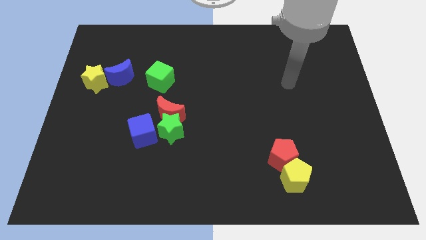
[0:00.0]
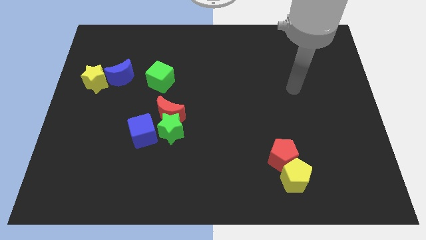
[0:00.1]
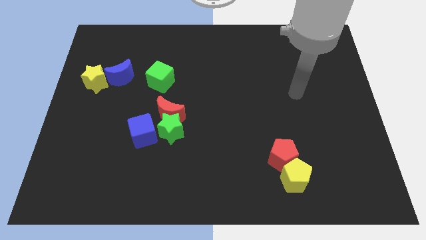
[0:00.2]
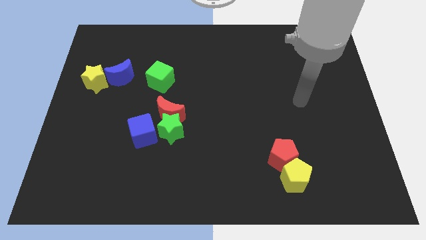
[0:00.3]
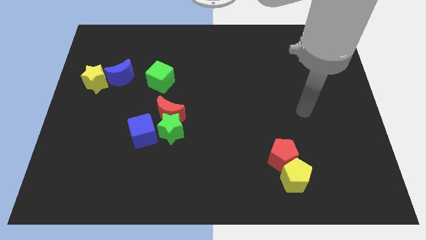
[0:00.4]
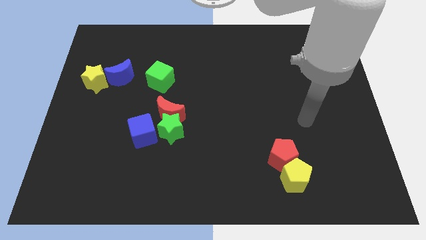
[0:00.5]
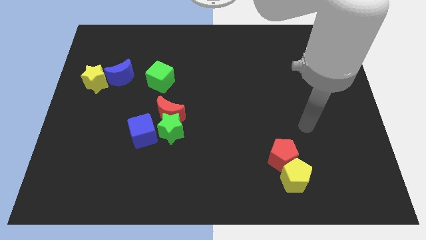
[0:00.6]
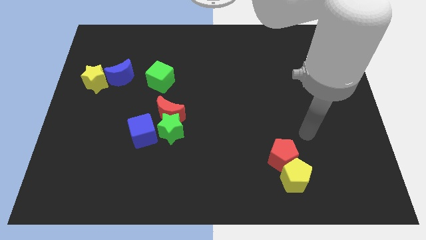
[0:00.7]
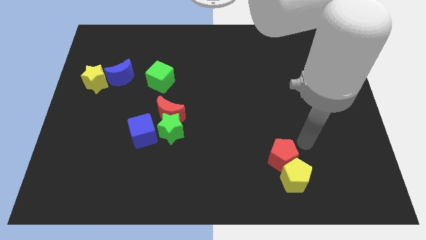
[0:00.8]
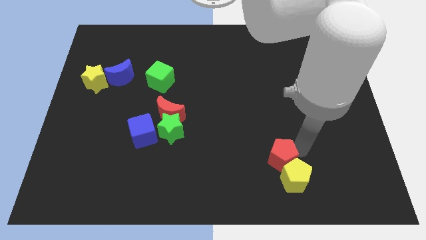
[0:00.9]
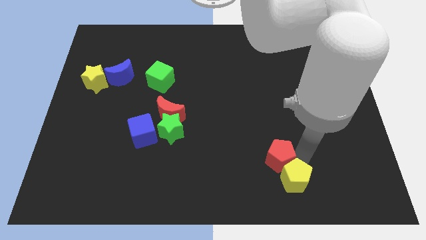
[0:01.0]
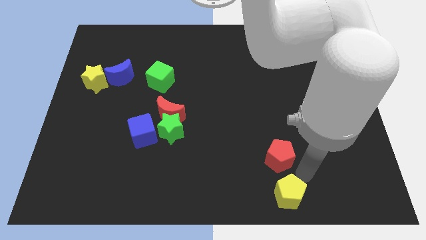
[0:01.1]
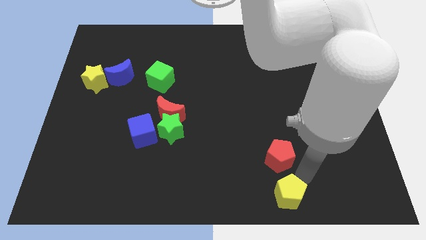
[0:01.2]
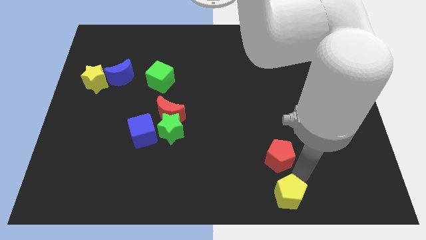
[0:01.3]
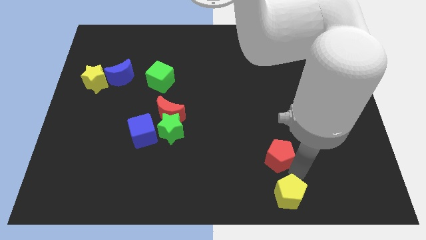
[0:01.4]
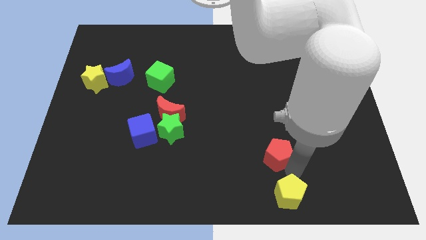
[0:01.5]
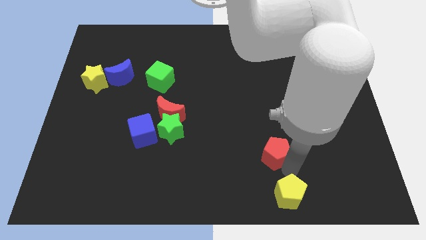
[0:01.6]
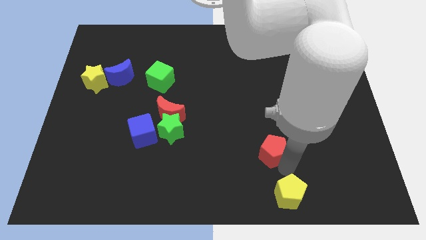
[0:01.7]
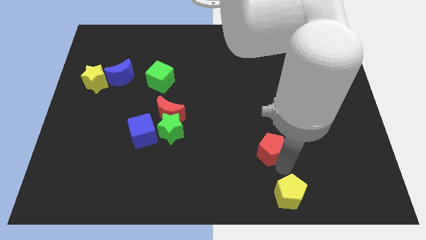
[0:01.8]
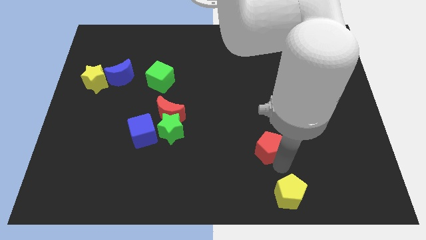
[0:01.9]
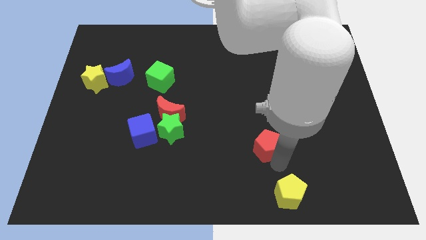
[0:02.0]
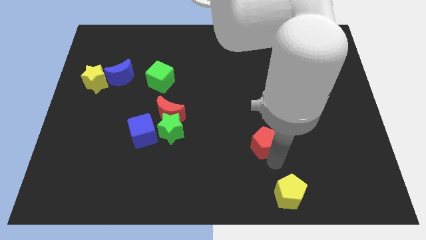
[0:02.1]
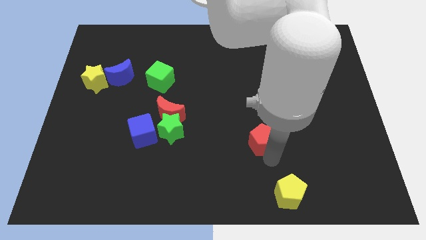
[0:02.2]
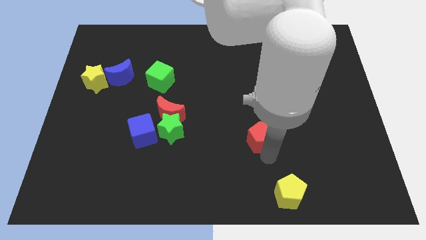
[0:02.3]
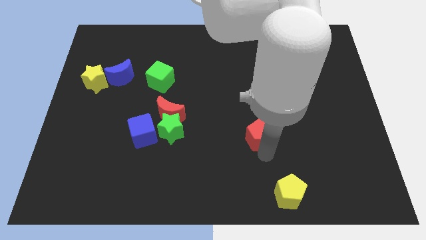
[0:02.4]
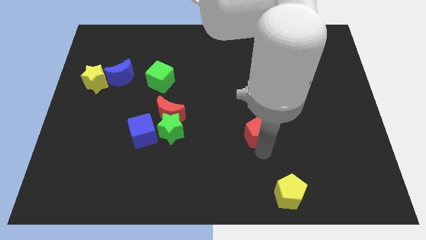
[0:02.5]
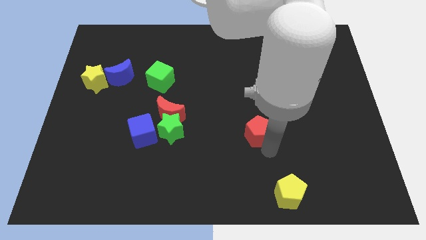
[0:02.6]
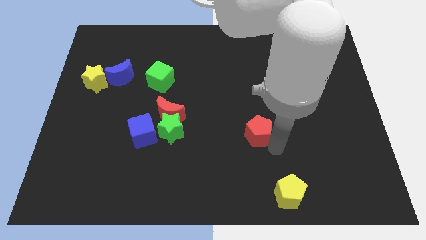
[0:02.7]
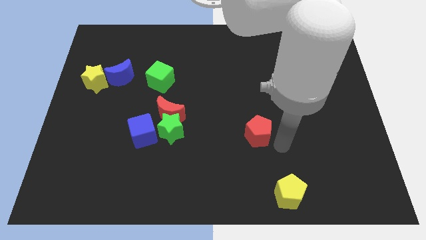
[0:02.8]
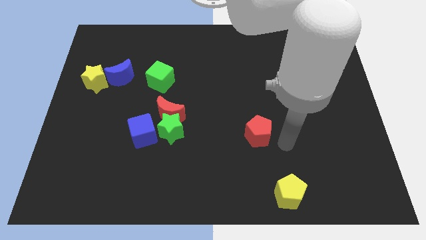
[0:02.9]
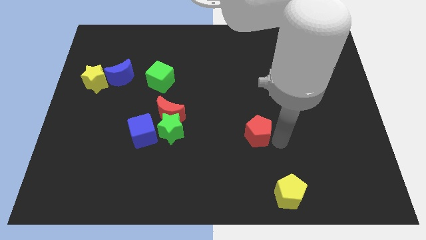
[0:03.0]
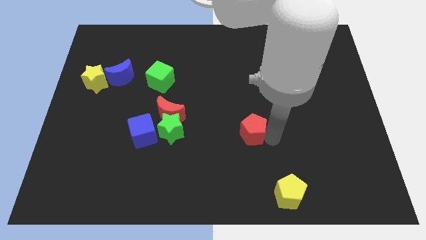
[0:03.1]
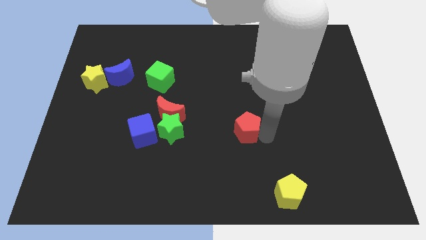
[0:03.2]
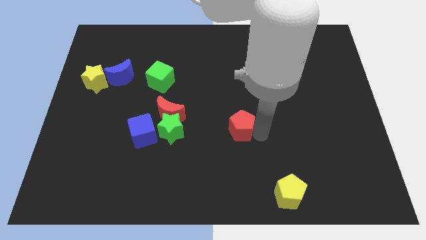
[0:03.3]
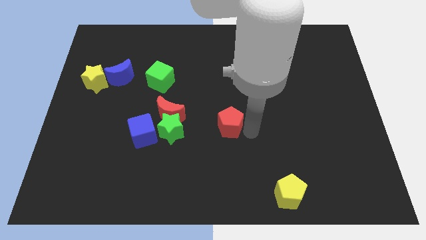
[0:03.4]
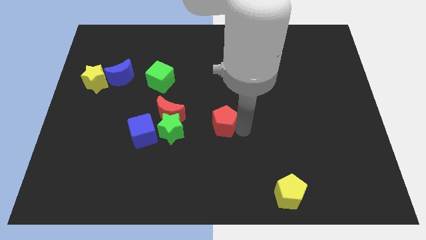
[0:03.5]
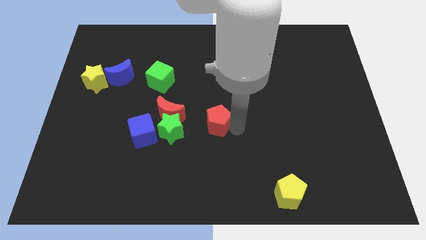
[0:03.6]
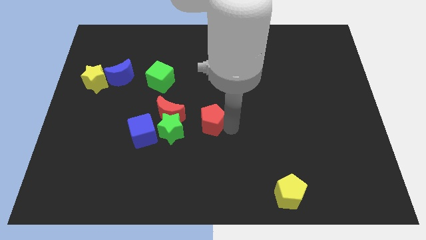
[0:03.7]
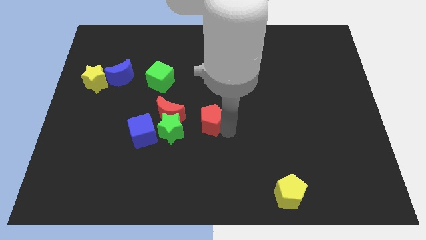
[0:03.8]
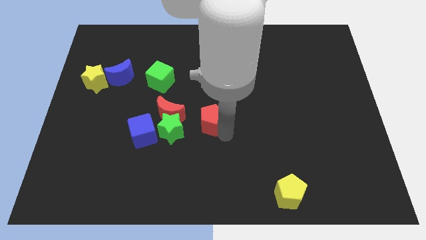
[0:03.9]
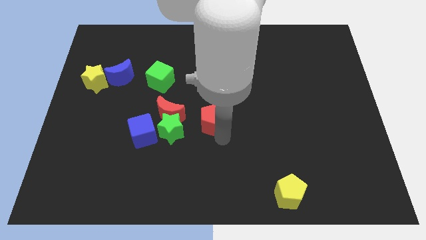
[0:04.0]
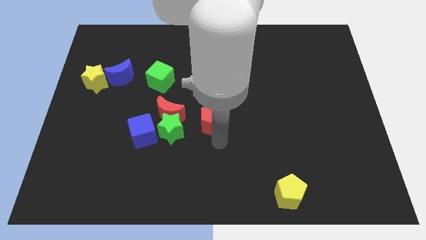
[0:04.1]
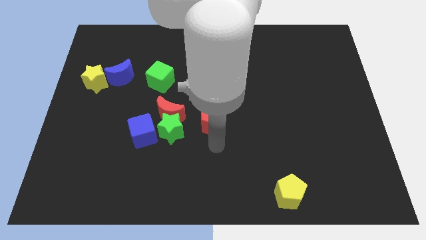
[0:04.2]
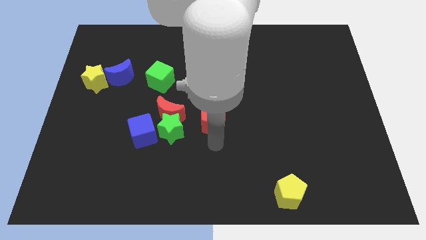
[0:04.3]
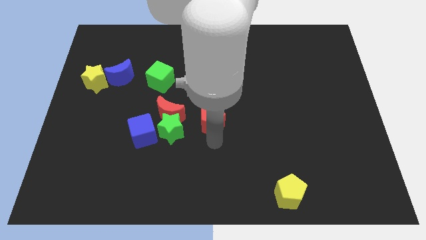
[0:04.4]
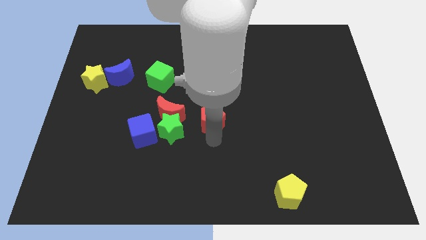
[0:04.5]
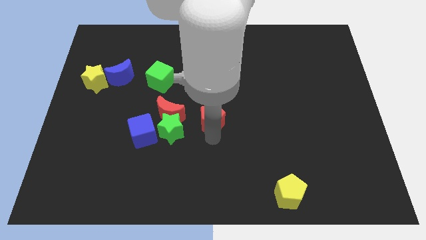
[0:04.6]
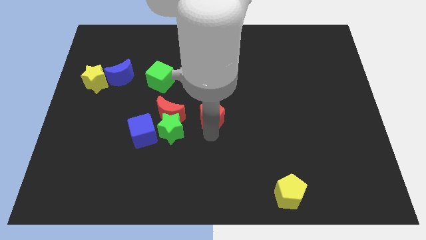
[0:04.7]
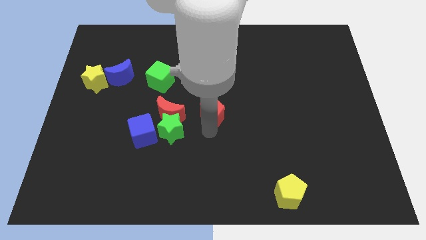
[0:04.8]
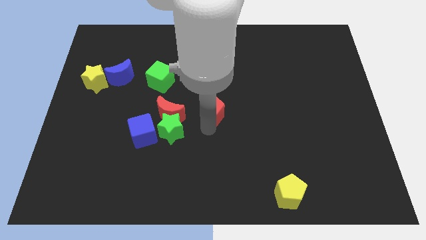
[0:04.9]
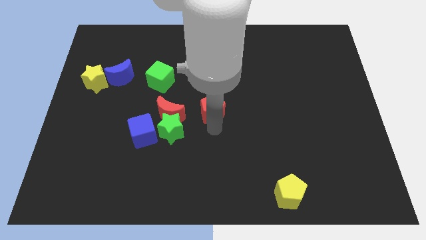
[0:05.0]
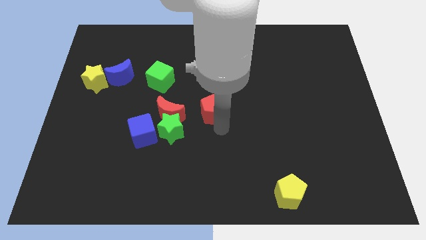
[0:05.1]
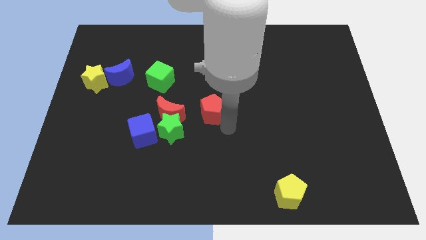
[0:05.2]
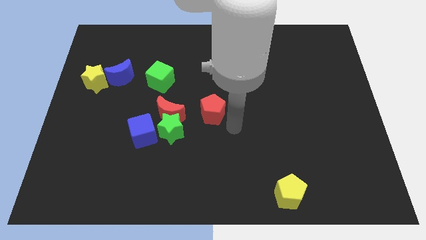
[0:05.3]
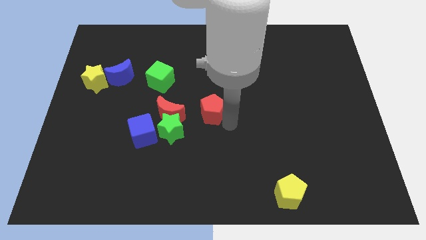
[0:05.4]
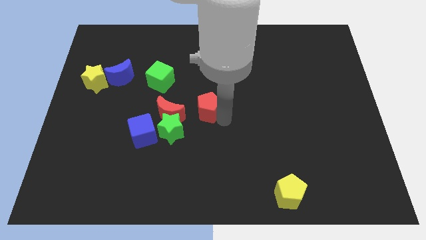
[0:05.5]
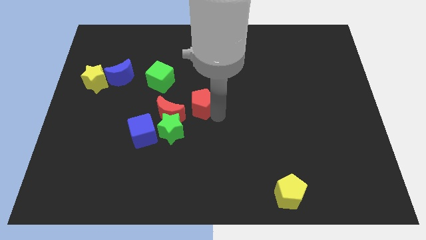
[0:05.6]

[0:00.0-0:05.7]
slide the red pentagon to the top right side of the red moon

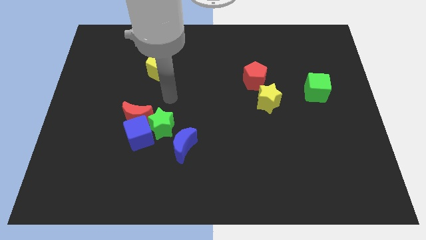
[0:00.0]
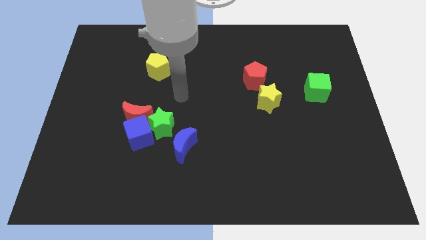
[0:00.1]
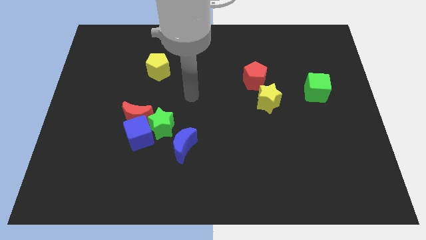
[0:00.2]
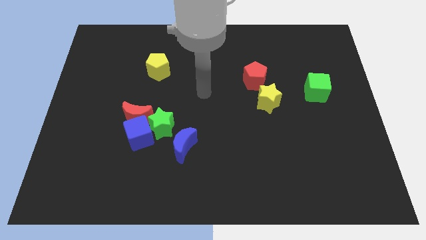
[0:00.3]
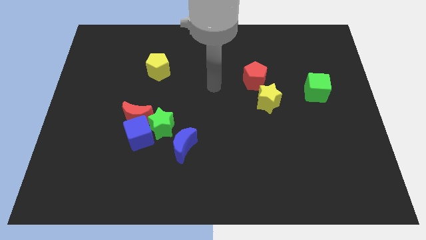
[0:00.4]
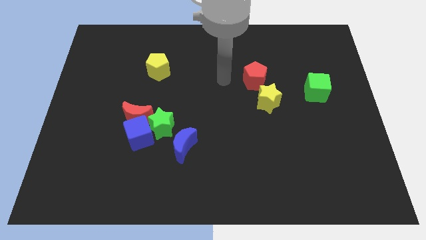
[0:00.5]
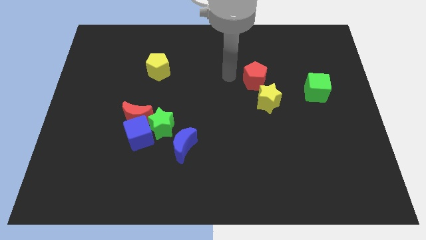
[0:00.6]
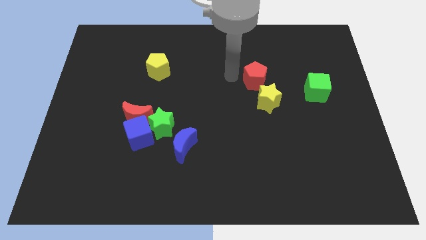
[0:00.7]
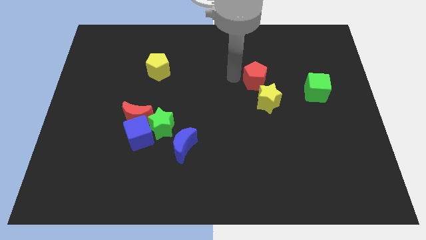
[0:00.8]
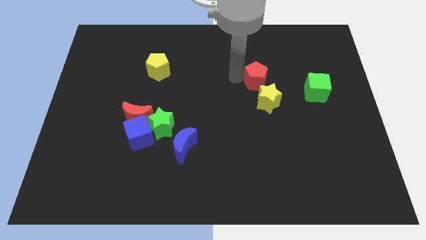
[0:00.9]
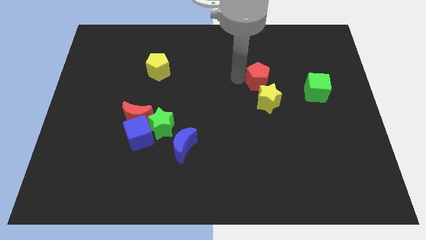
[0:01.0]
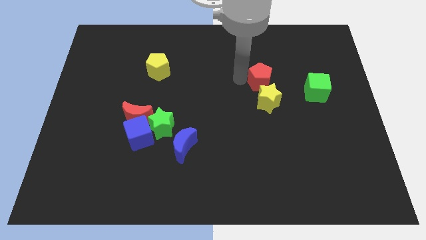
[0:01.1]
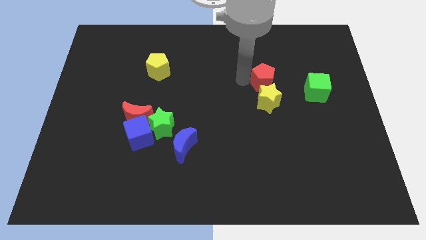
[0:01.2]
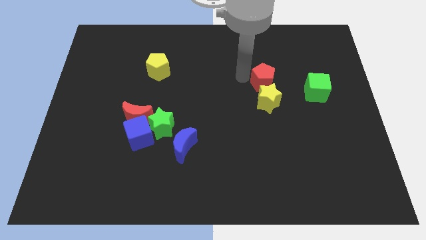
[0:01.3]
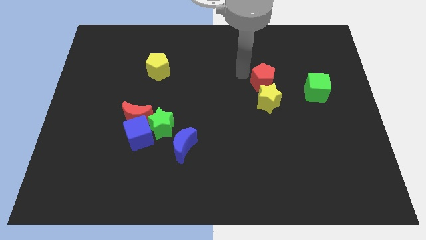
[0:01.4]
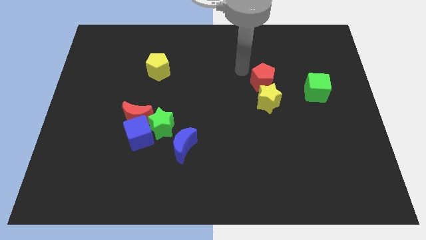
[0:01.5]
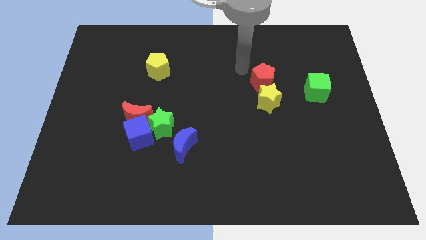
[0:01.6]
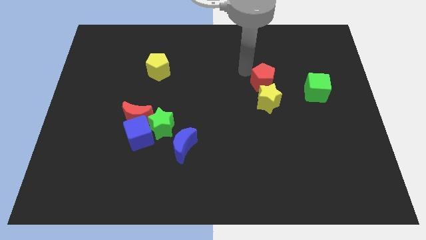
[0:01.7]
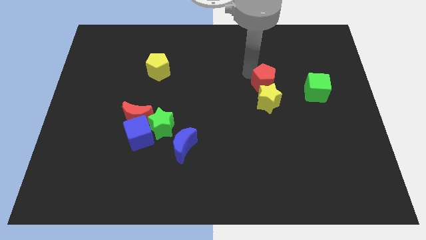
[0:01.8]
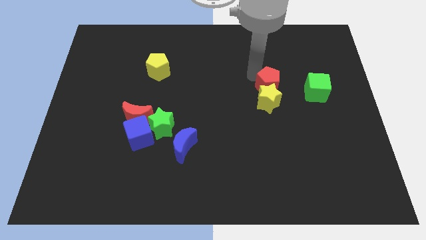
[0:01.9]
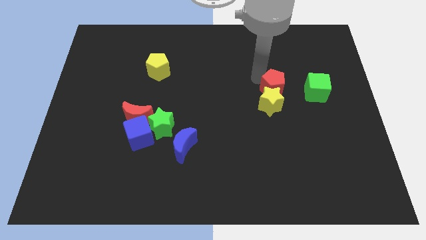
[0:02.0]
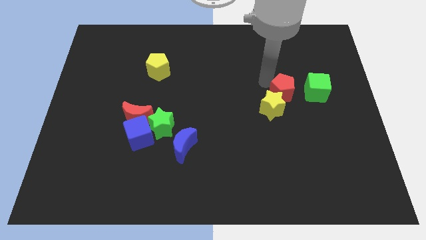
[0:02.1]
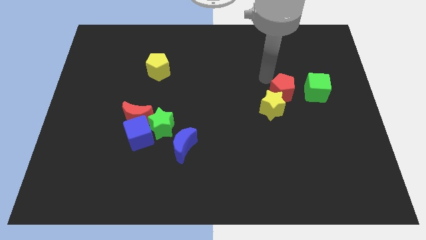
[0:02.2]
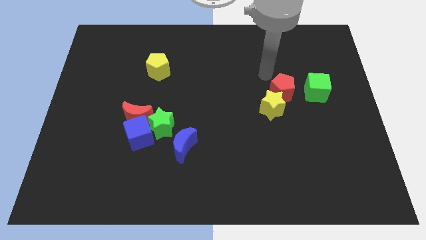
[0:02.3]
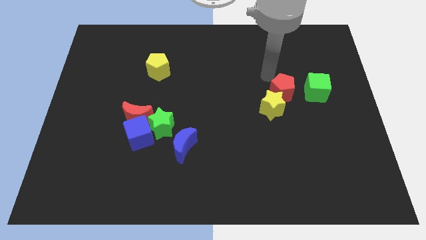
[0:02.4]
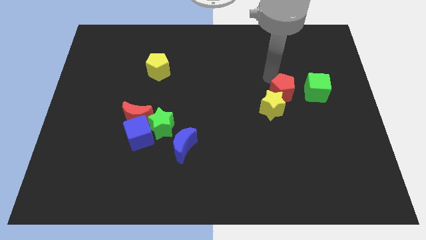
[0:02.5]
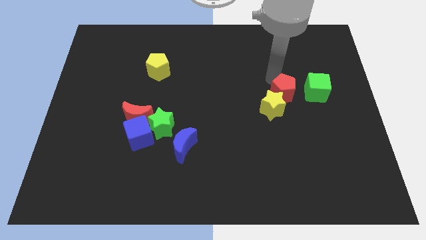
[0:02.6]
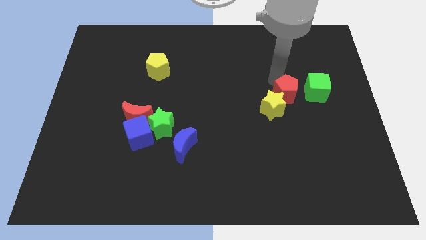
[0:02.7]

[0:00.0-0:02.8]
move the red pentagon diagonally down and to the left of the green cube
